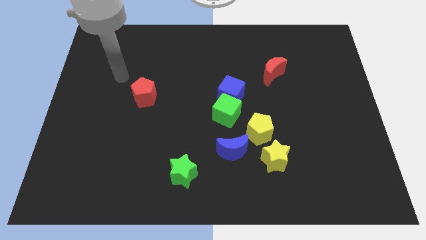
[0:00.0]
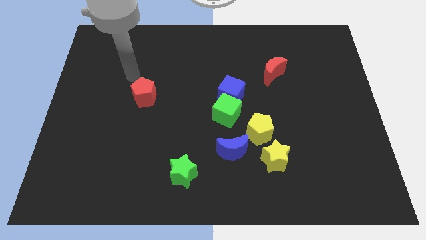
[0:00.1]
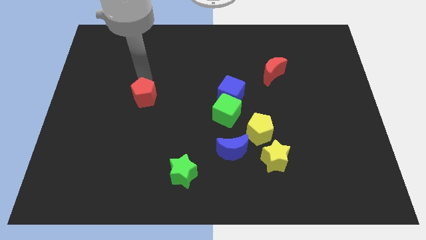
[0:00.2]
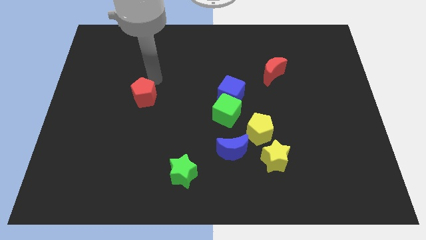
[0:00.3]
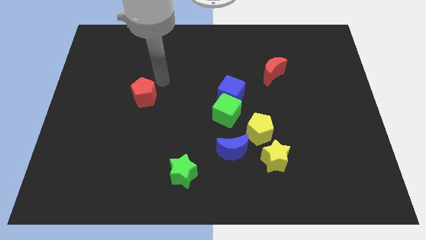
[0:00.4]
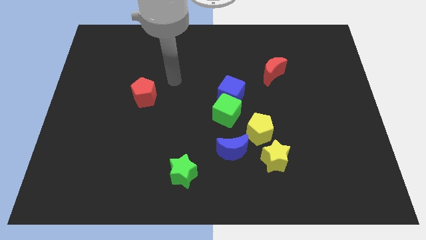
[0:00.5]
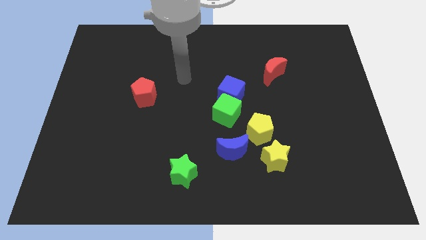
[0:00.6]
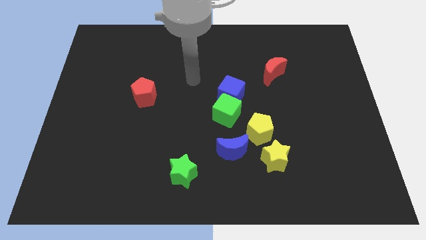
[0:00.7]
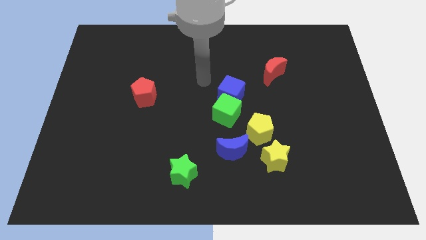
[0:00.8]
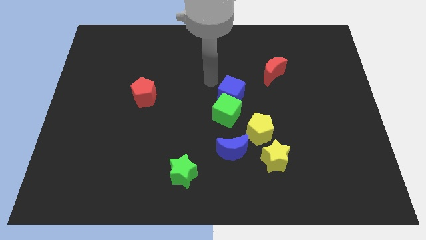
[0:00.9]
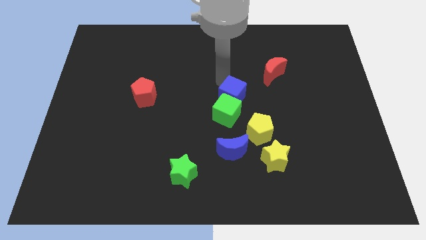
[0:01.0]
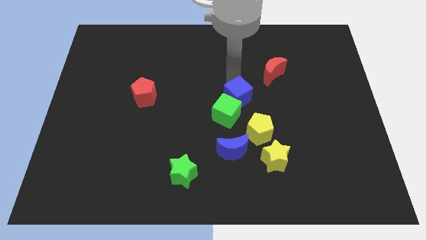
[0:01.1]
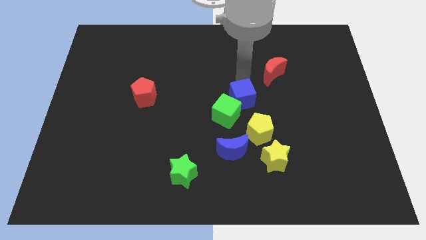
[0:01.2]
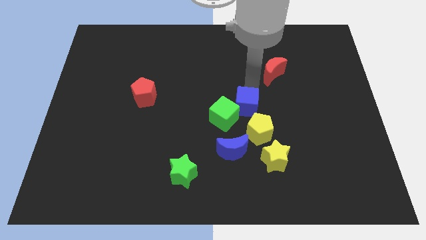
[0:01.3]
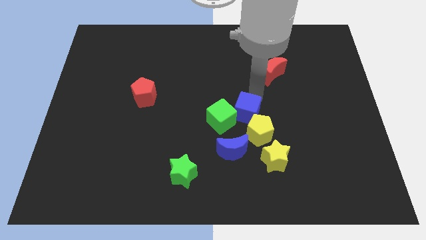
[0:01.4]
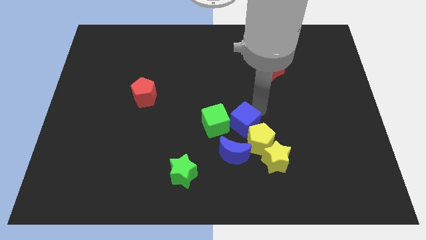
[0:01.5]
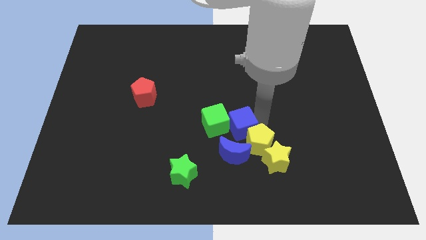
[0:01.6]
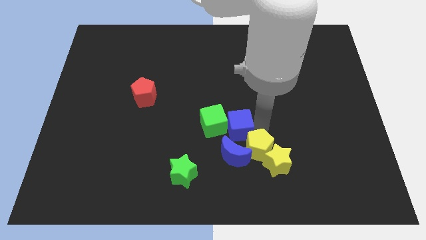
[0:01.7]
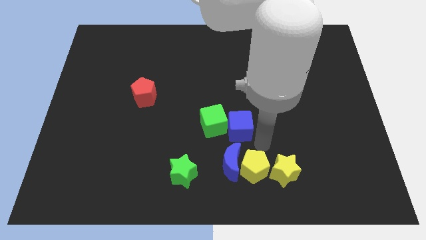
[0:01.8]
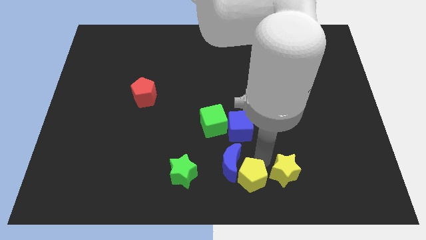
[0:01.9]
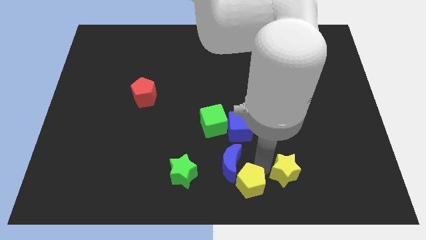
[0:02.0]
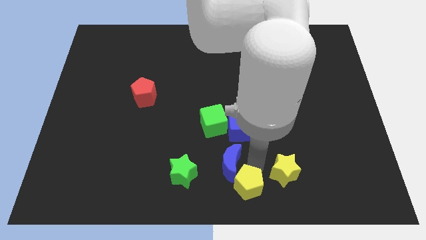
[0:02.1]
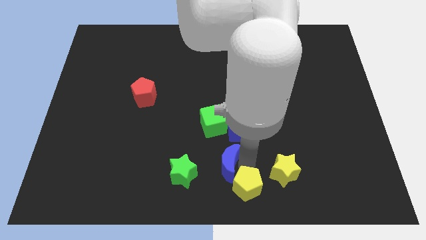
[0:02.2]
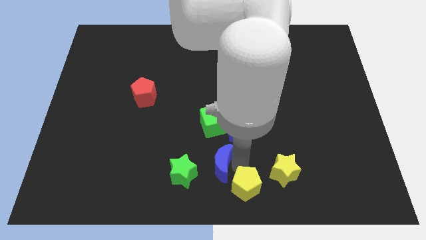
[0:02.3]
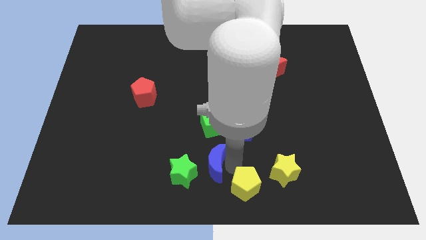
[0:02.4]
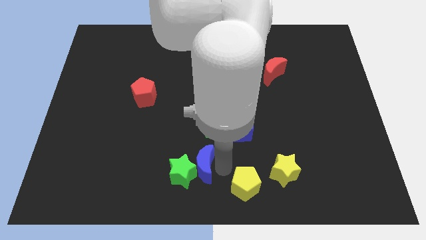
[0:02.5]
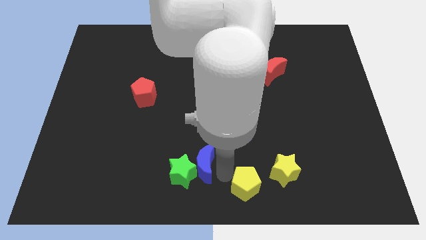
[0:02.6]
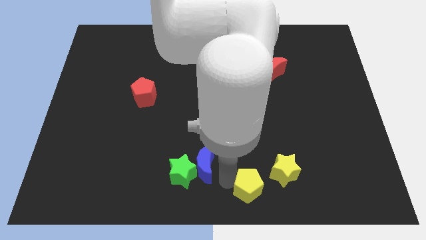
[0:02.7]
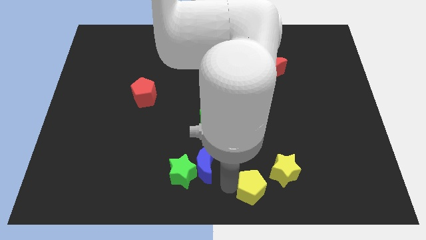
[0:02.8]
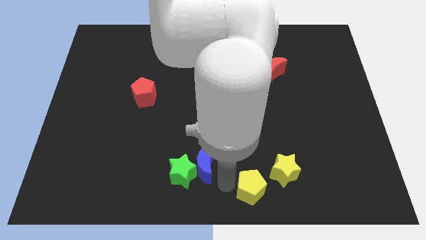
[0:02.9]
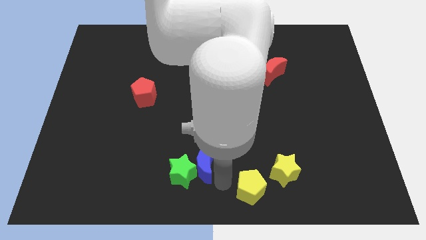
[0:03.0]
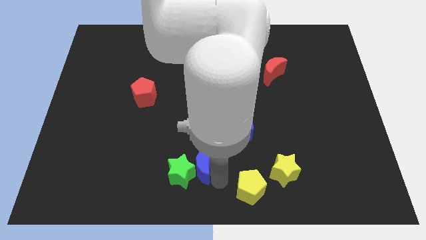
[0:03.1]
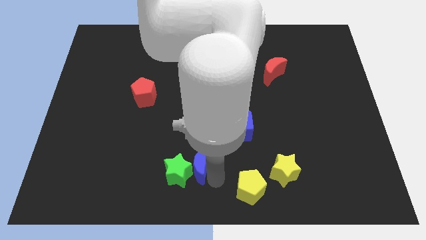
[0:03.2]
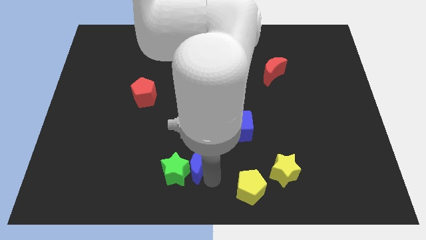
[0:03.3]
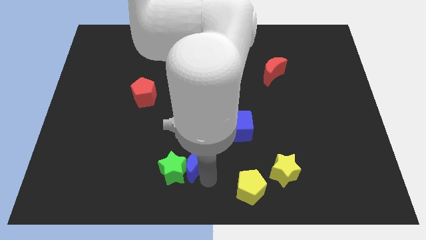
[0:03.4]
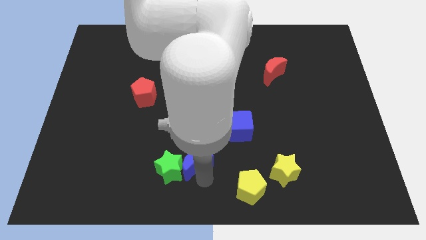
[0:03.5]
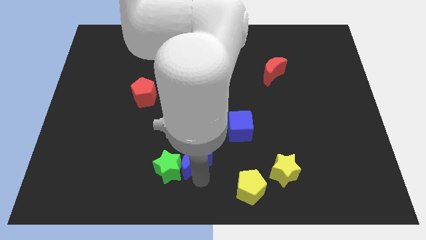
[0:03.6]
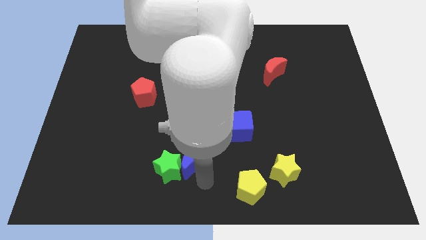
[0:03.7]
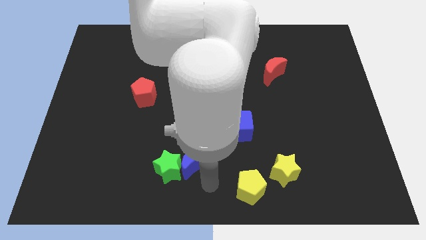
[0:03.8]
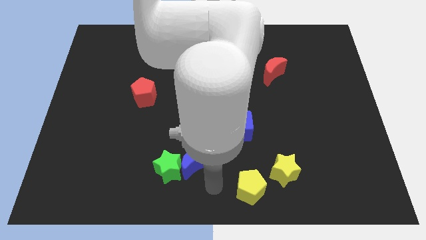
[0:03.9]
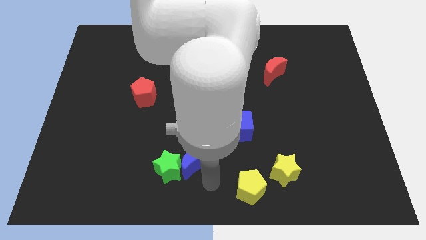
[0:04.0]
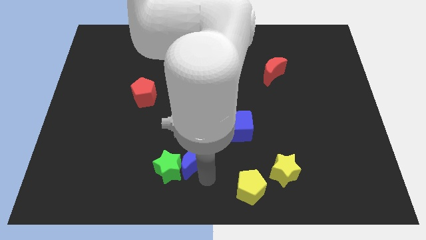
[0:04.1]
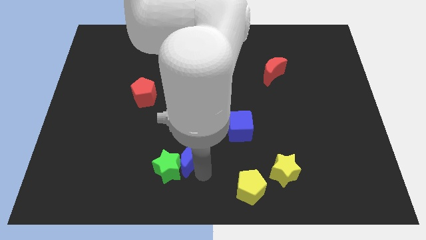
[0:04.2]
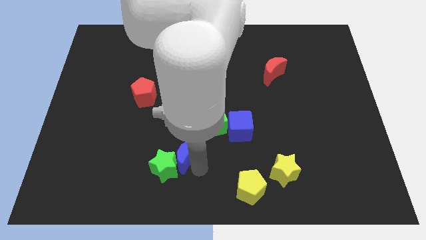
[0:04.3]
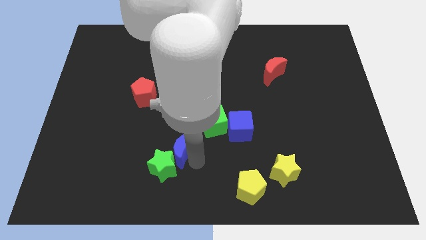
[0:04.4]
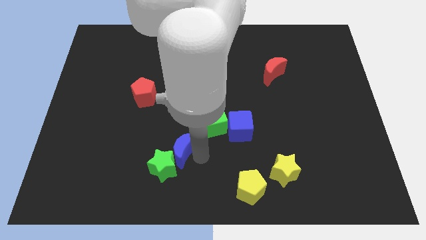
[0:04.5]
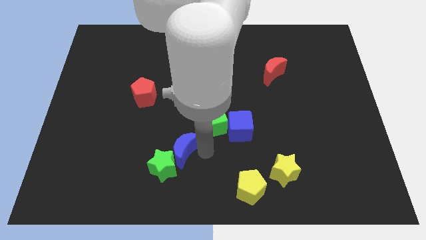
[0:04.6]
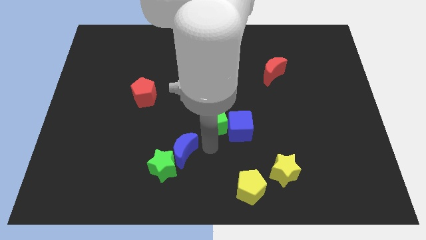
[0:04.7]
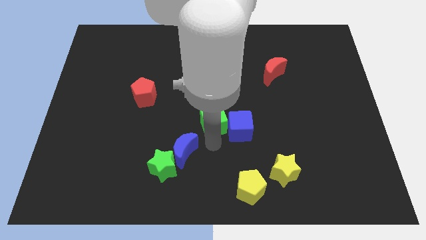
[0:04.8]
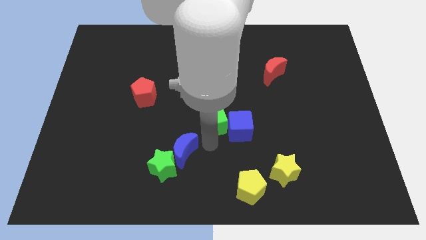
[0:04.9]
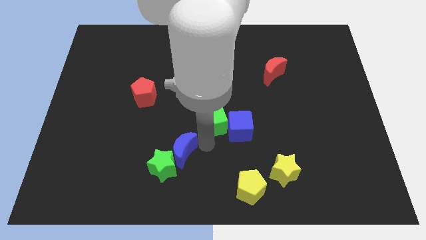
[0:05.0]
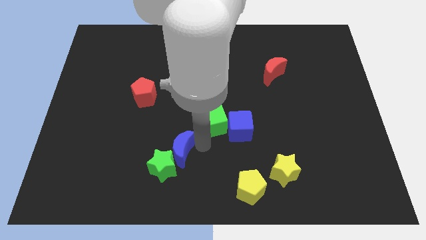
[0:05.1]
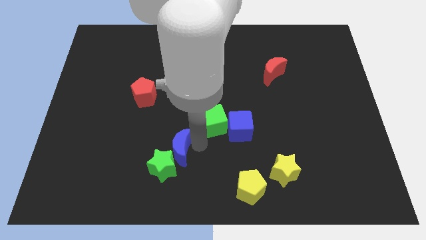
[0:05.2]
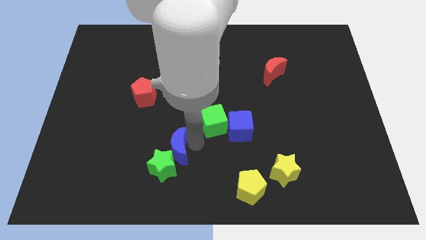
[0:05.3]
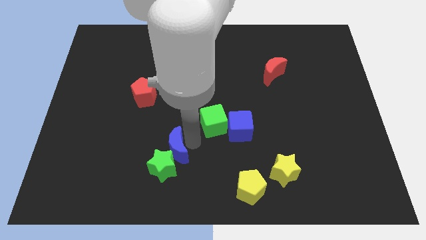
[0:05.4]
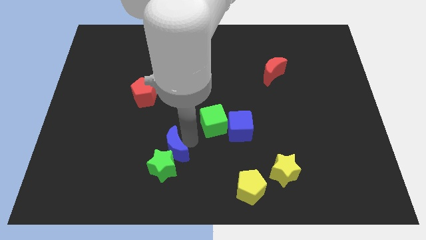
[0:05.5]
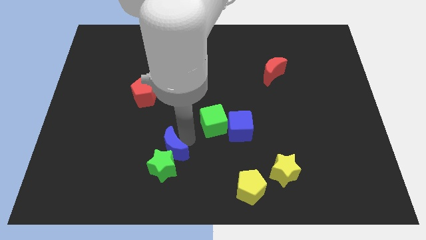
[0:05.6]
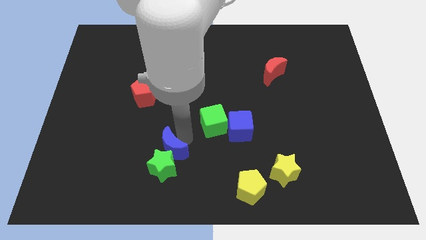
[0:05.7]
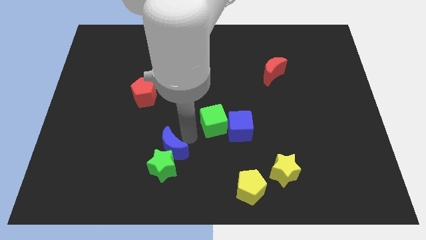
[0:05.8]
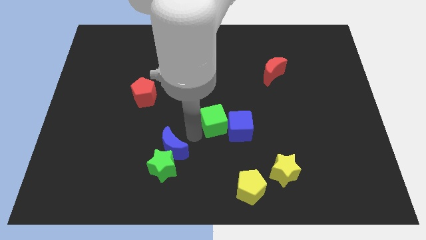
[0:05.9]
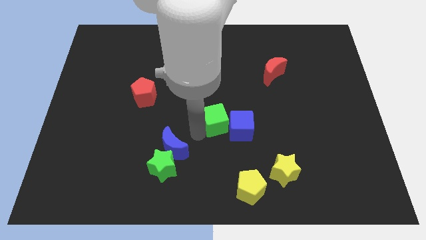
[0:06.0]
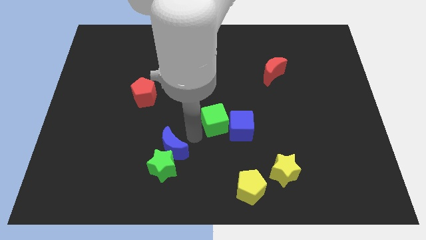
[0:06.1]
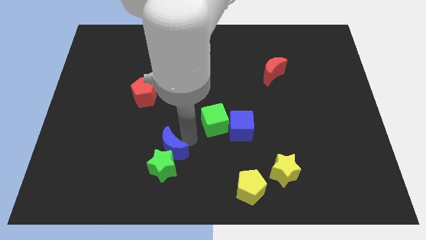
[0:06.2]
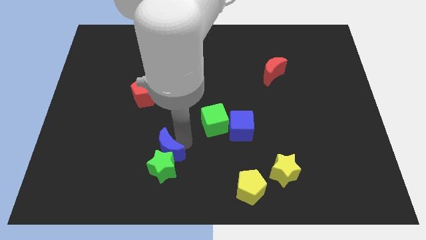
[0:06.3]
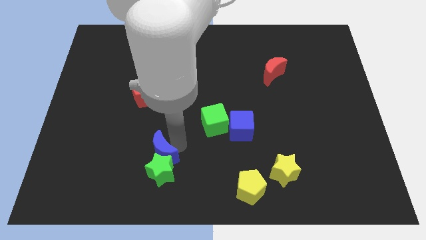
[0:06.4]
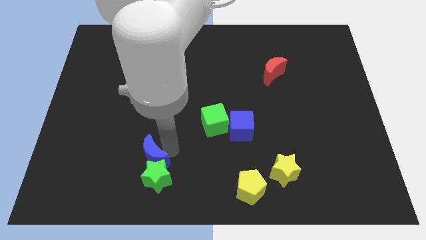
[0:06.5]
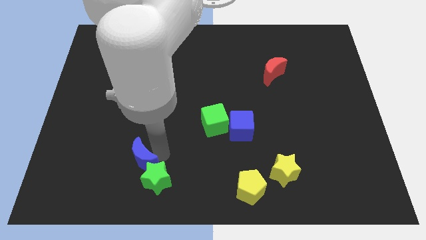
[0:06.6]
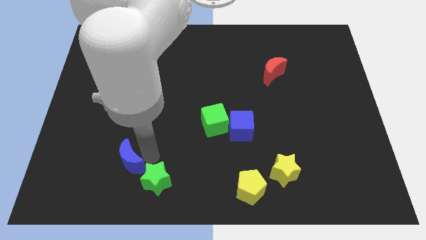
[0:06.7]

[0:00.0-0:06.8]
move the blue moon left of the green star

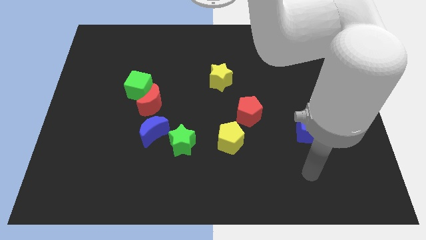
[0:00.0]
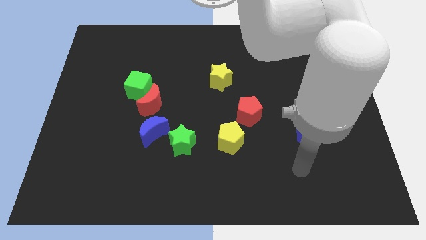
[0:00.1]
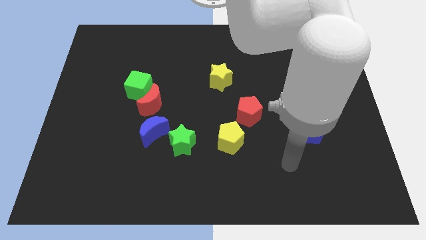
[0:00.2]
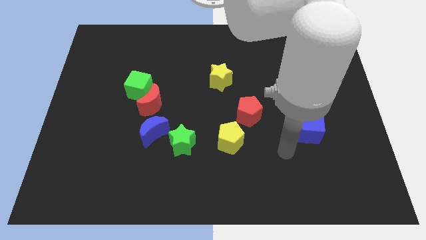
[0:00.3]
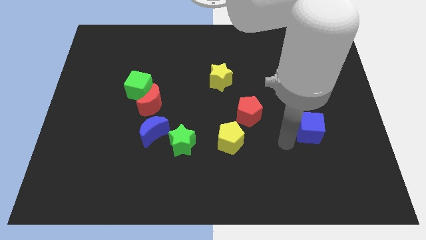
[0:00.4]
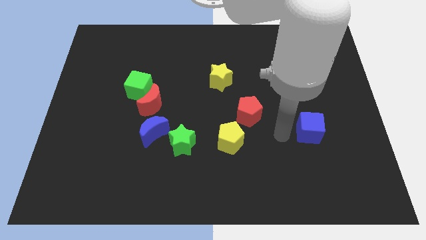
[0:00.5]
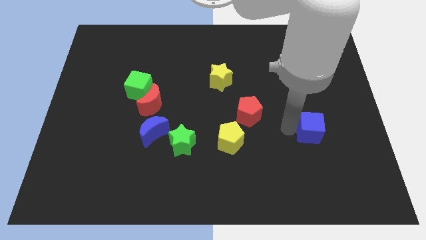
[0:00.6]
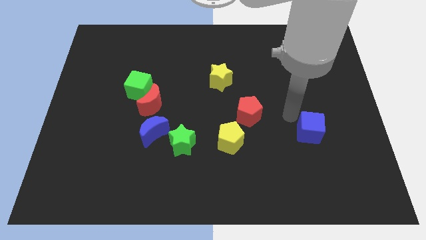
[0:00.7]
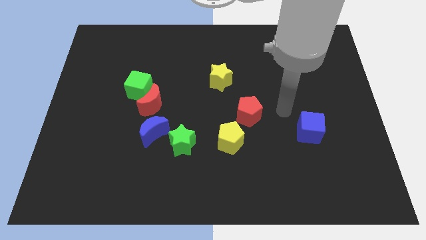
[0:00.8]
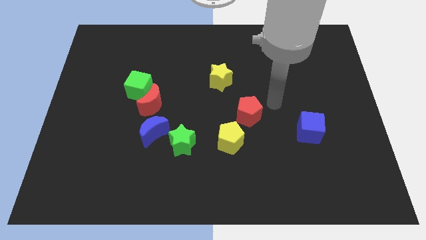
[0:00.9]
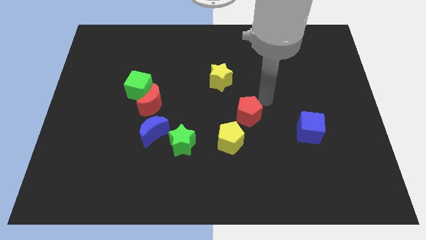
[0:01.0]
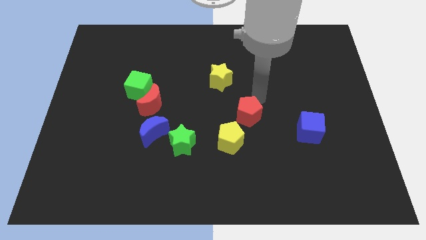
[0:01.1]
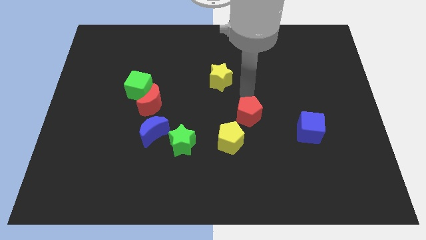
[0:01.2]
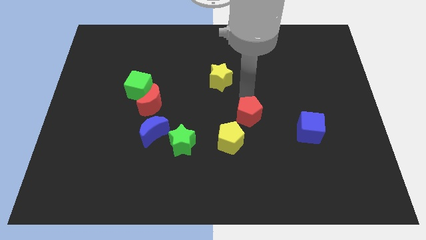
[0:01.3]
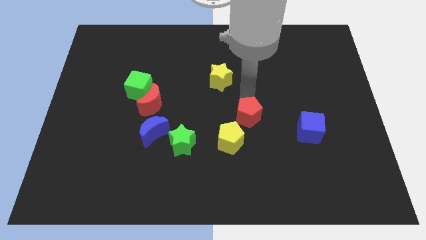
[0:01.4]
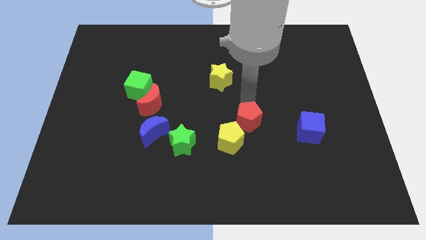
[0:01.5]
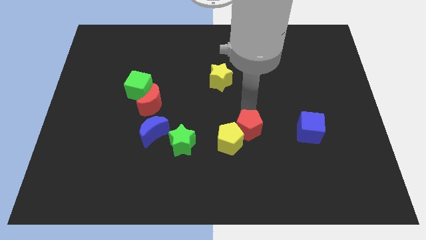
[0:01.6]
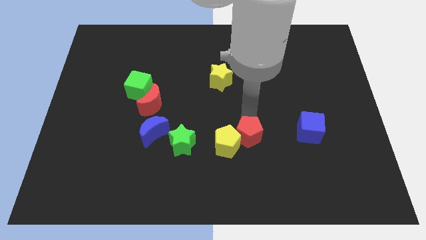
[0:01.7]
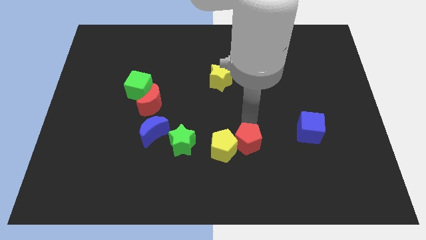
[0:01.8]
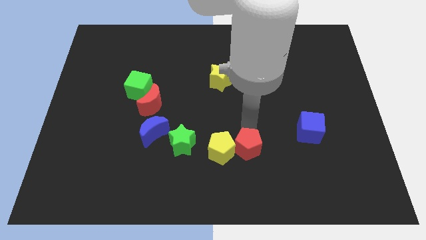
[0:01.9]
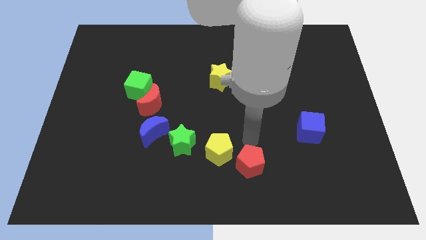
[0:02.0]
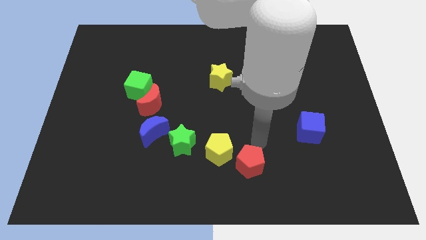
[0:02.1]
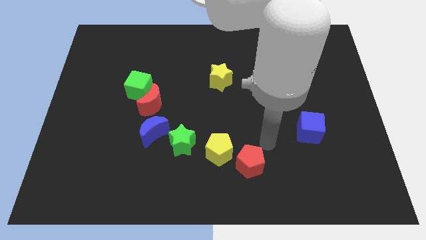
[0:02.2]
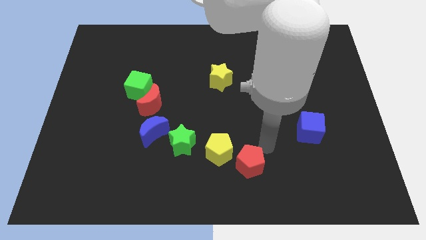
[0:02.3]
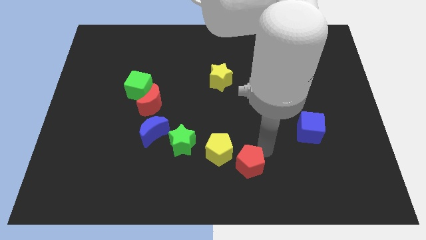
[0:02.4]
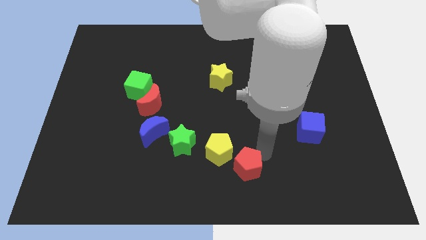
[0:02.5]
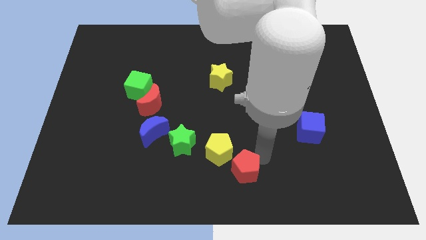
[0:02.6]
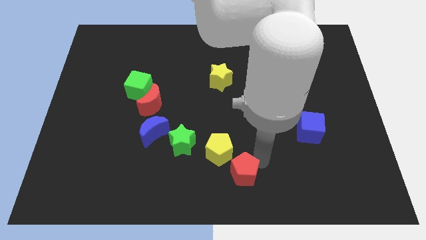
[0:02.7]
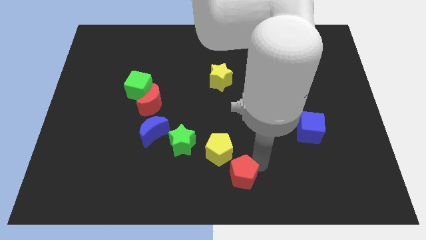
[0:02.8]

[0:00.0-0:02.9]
slide the red pentagon below the yellow pentagon
